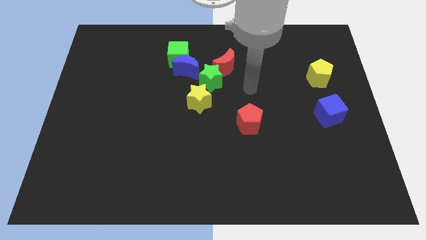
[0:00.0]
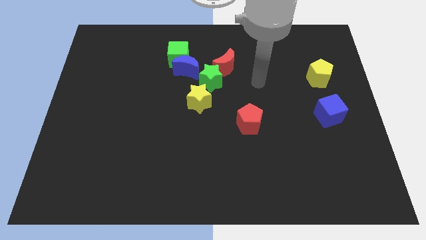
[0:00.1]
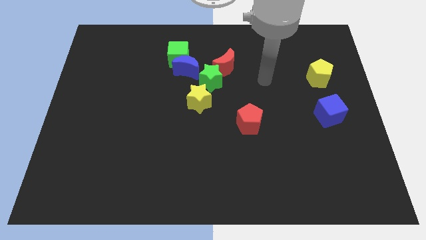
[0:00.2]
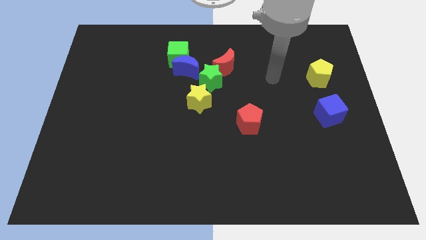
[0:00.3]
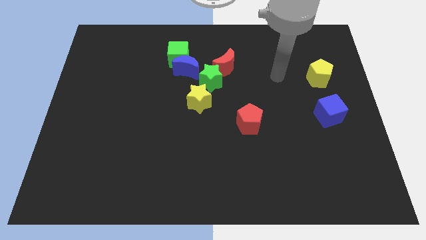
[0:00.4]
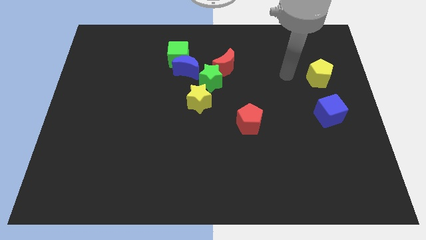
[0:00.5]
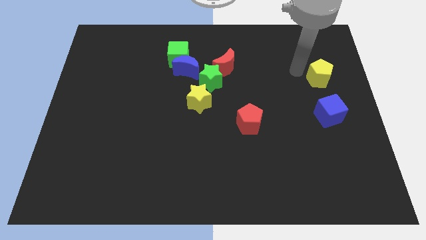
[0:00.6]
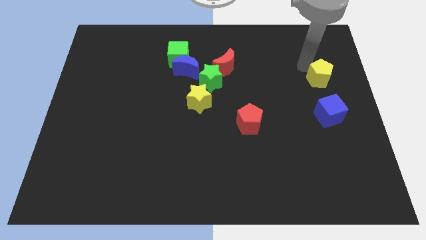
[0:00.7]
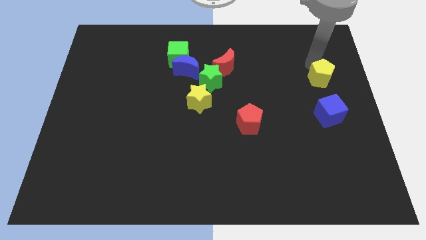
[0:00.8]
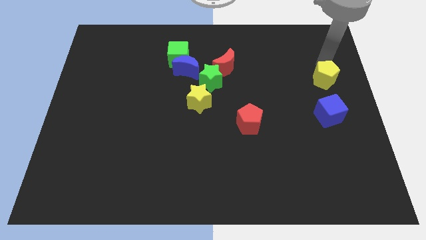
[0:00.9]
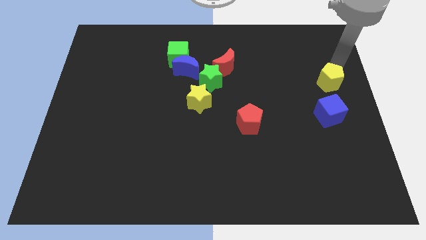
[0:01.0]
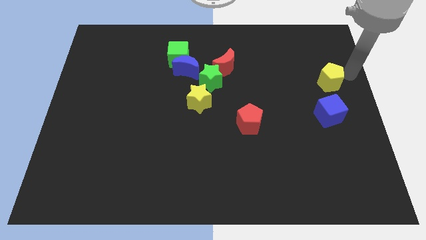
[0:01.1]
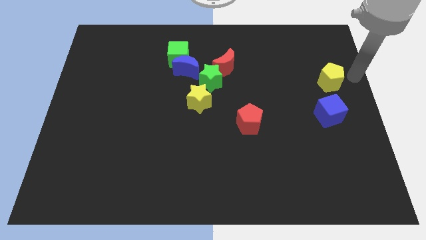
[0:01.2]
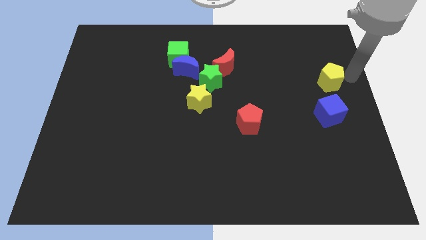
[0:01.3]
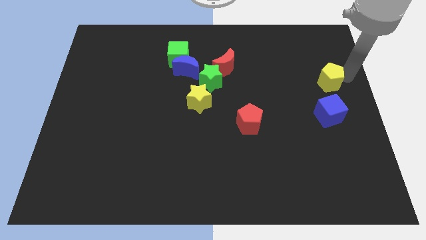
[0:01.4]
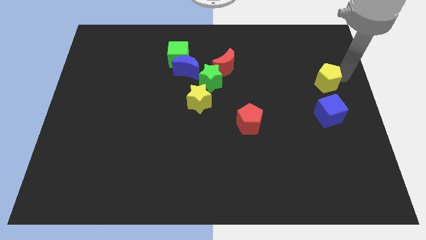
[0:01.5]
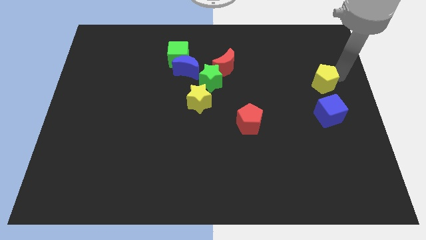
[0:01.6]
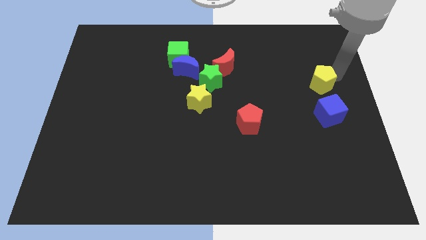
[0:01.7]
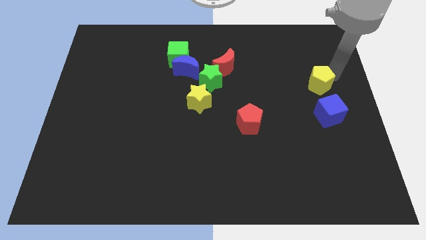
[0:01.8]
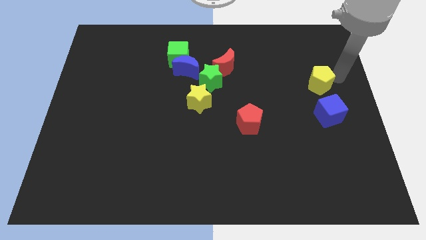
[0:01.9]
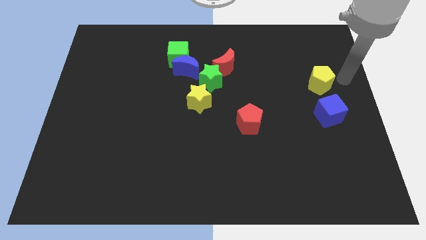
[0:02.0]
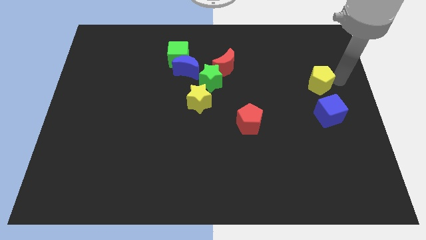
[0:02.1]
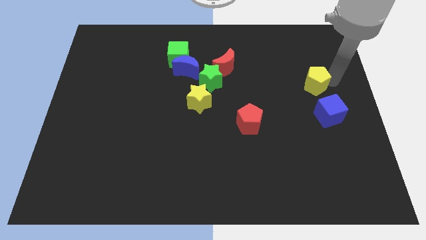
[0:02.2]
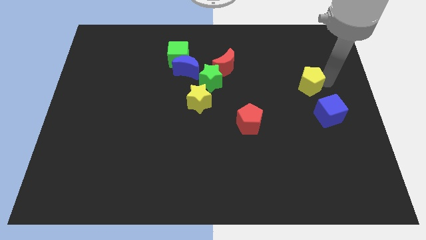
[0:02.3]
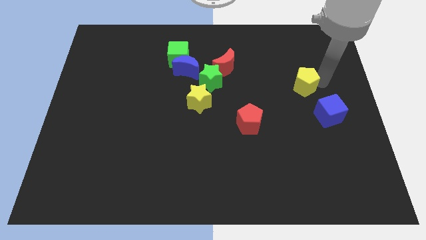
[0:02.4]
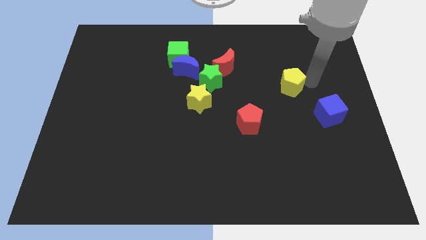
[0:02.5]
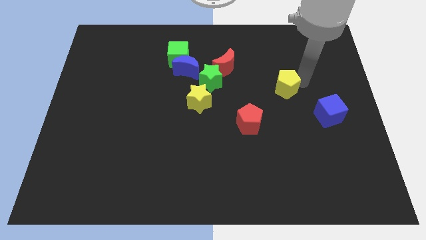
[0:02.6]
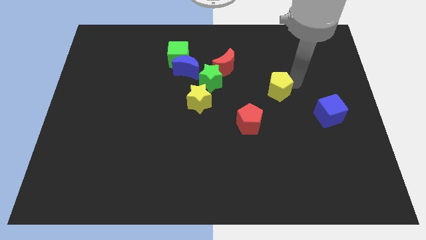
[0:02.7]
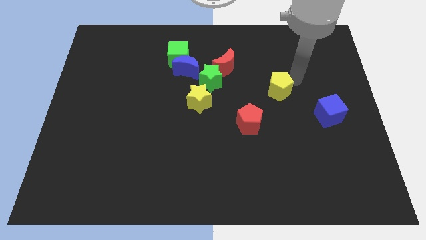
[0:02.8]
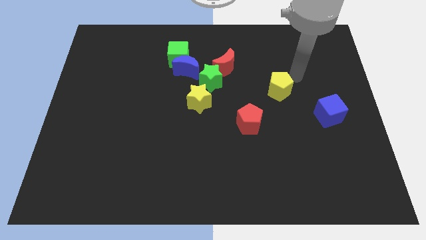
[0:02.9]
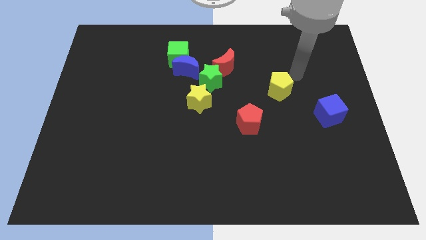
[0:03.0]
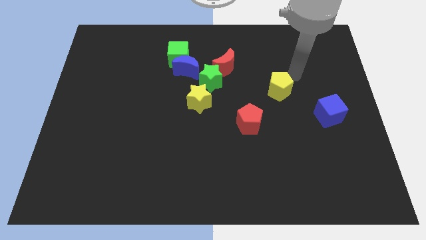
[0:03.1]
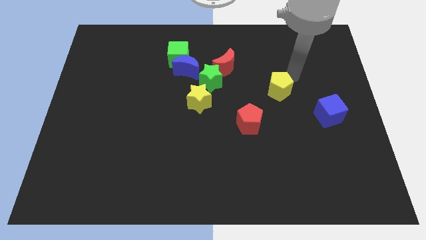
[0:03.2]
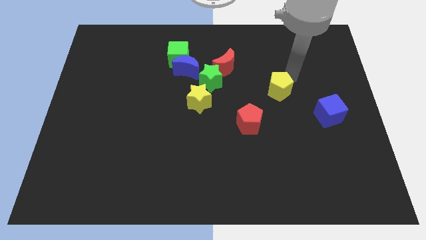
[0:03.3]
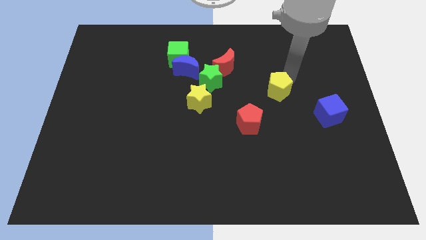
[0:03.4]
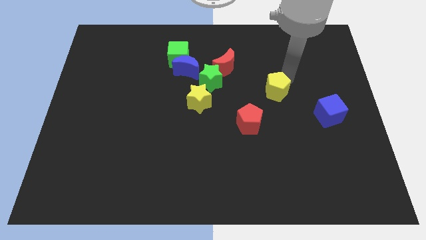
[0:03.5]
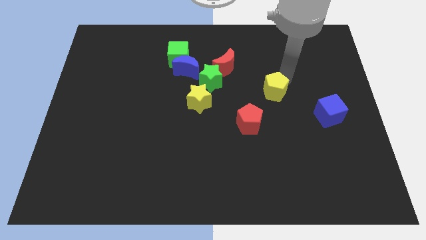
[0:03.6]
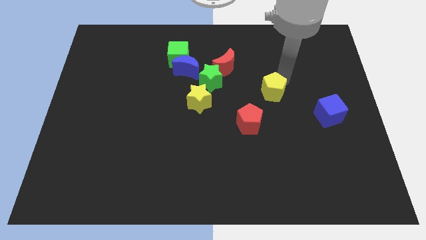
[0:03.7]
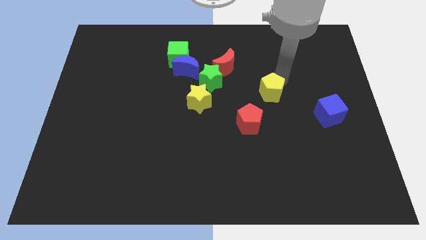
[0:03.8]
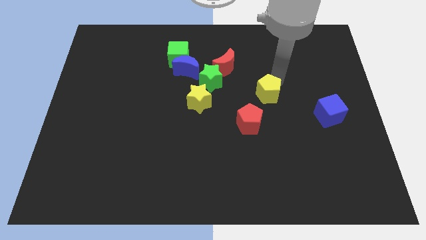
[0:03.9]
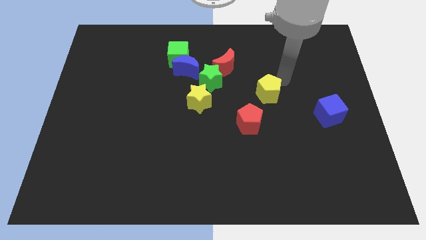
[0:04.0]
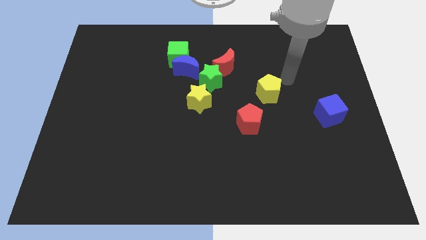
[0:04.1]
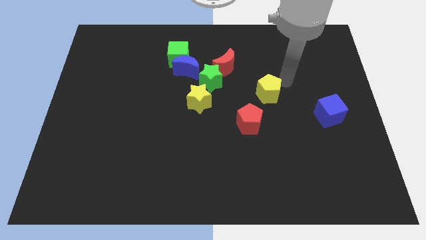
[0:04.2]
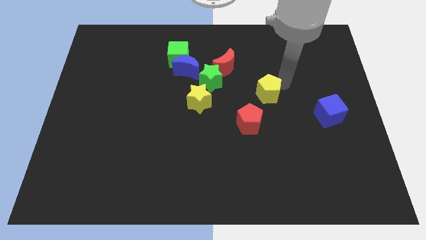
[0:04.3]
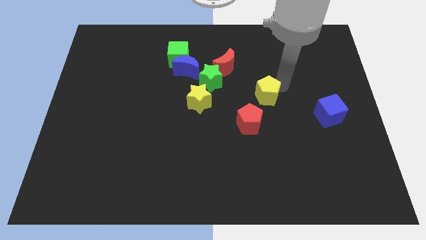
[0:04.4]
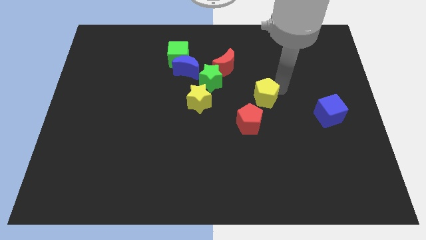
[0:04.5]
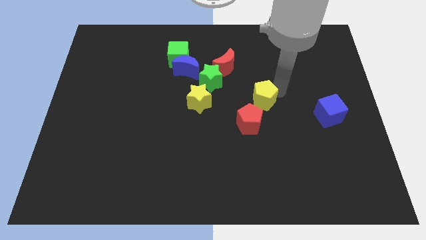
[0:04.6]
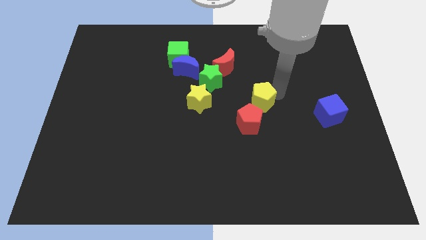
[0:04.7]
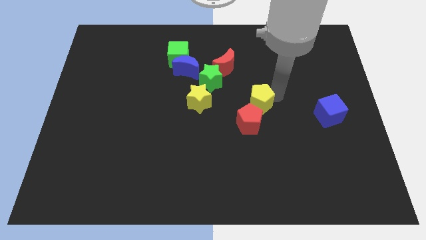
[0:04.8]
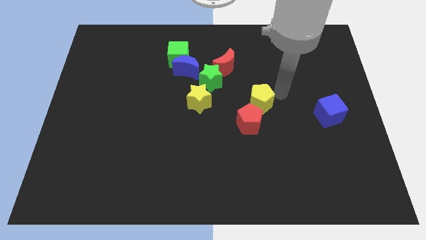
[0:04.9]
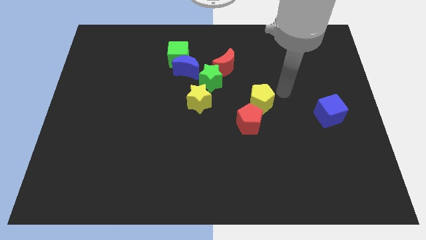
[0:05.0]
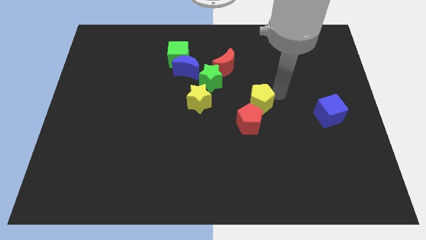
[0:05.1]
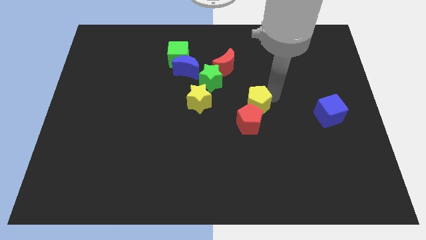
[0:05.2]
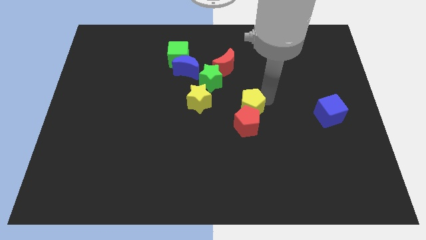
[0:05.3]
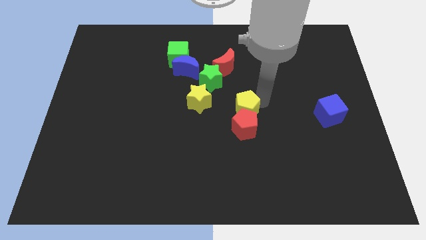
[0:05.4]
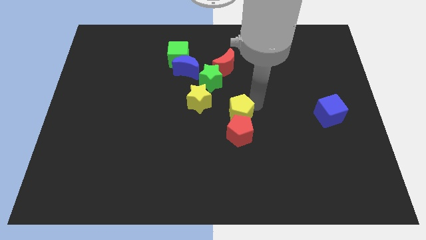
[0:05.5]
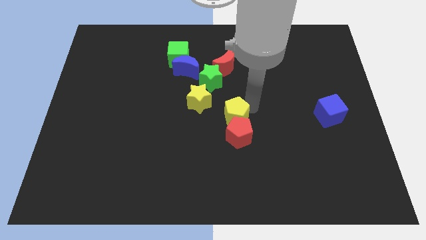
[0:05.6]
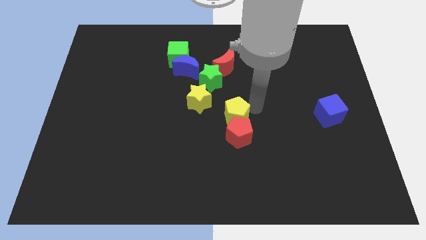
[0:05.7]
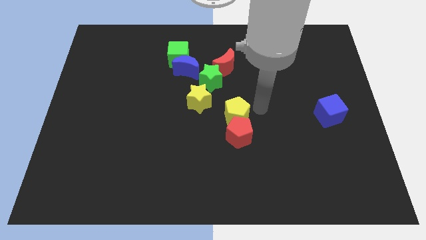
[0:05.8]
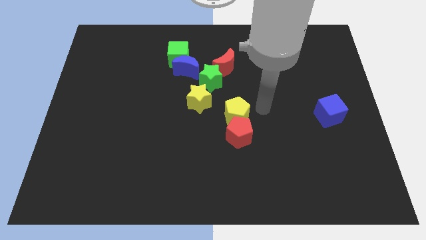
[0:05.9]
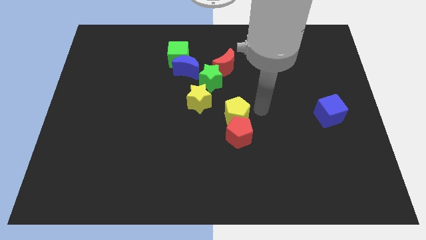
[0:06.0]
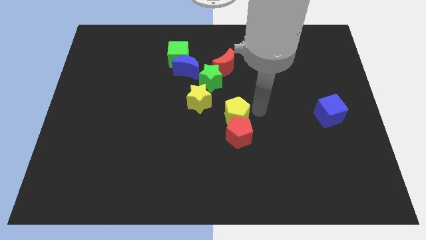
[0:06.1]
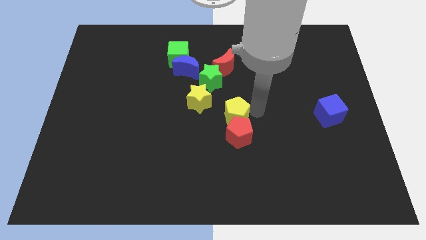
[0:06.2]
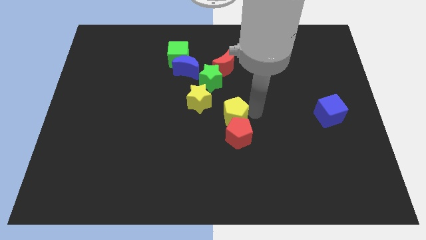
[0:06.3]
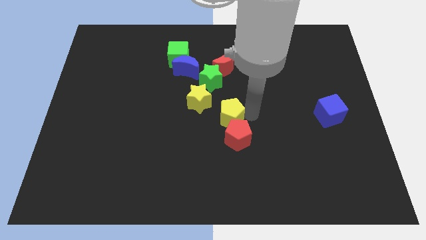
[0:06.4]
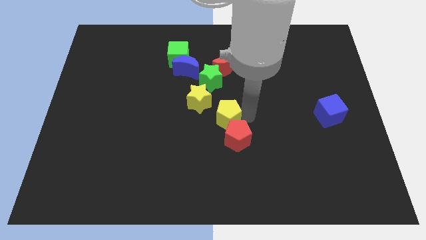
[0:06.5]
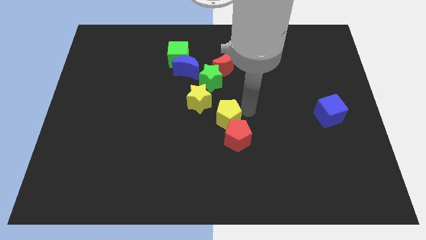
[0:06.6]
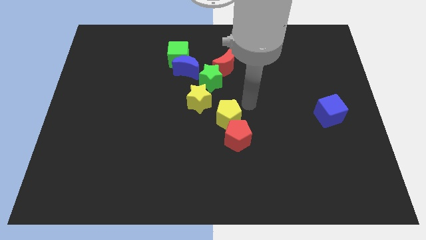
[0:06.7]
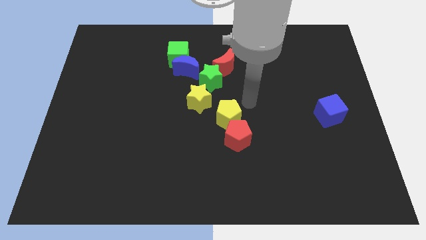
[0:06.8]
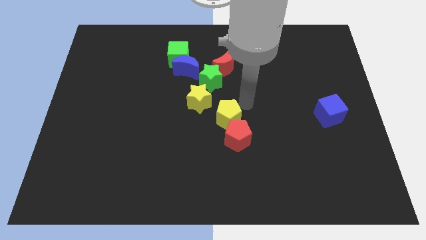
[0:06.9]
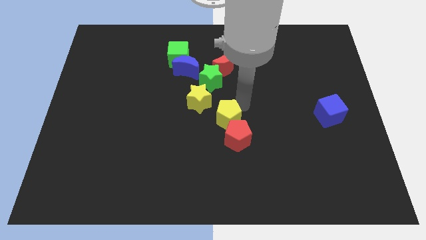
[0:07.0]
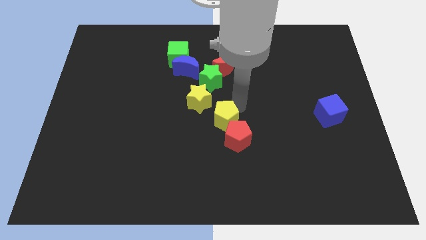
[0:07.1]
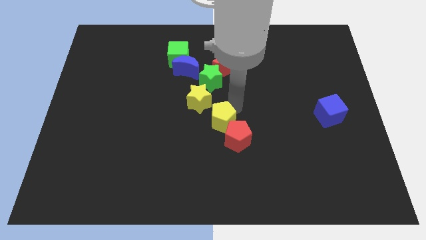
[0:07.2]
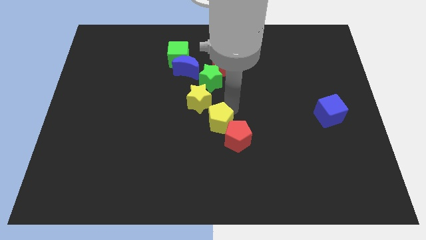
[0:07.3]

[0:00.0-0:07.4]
push the yellow pentagon below the yellow star

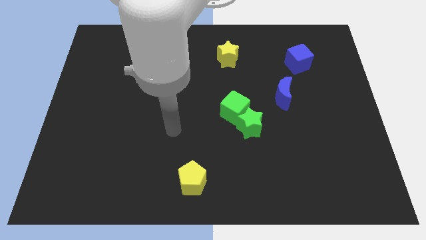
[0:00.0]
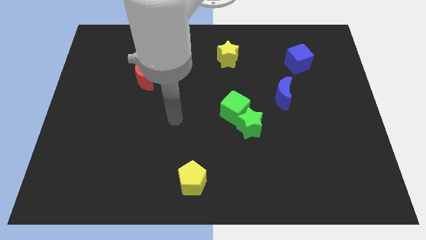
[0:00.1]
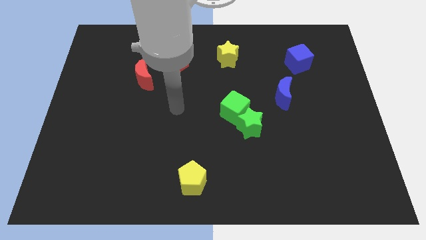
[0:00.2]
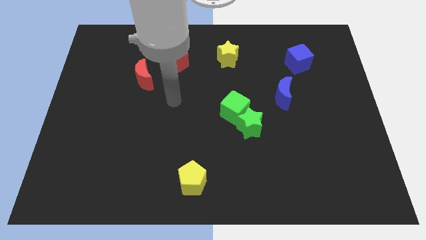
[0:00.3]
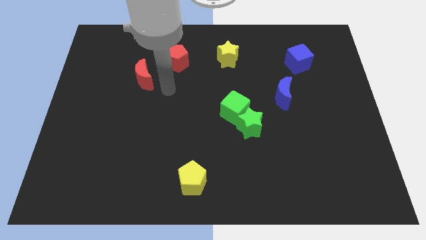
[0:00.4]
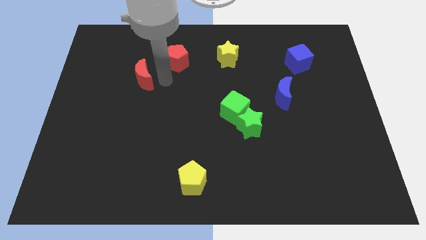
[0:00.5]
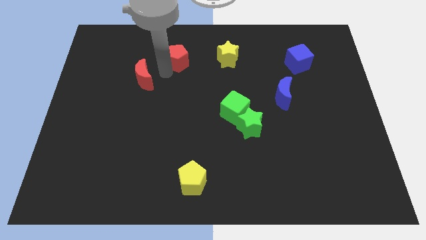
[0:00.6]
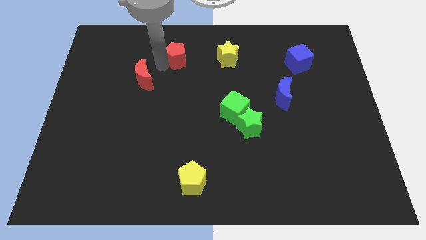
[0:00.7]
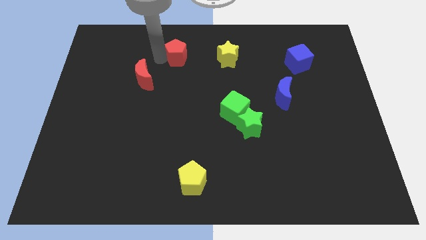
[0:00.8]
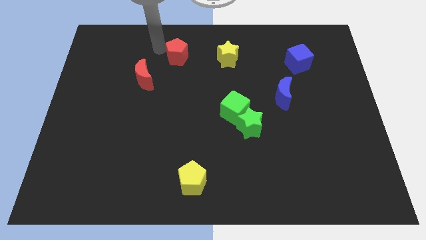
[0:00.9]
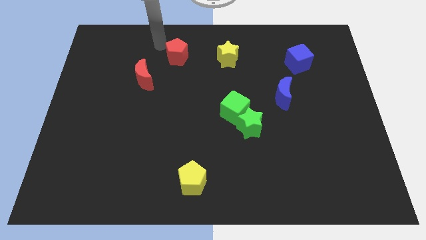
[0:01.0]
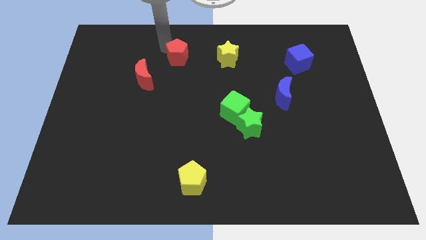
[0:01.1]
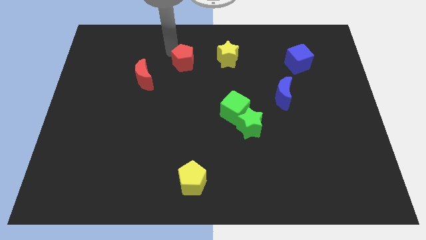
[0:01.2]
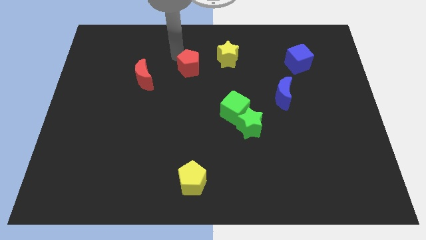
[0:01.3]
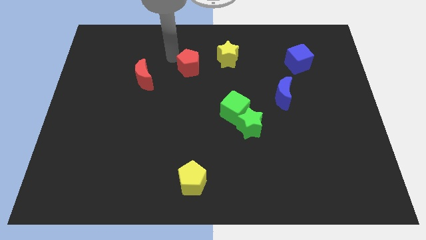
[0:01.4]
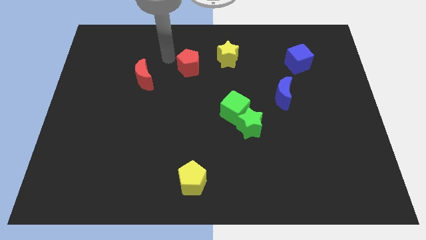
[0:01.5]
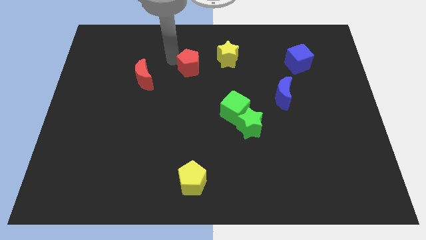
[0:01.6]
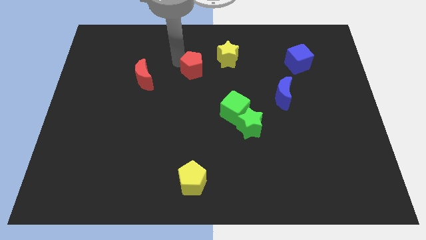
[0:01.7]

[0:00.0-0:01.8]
push the red pentagon to the bottom left side of the yellow star
